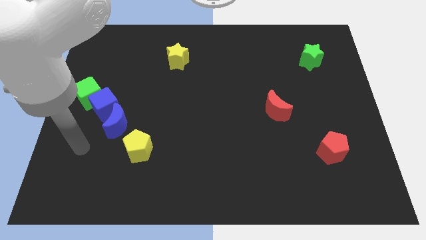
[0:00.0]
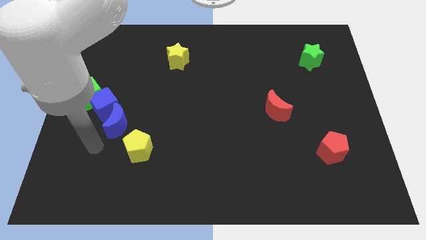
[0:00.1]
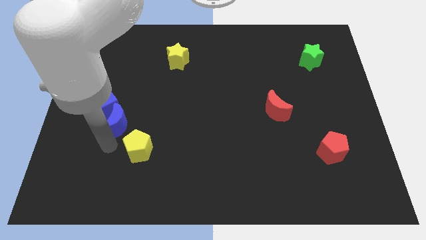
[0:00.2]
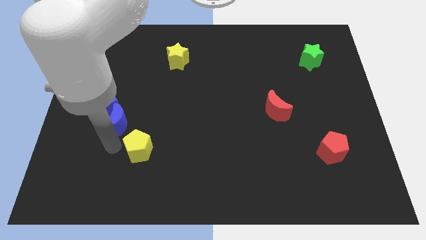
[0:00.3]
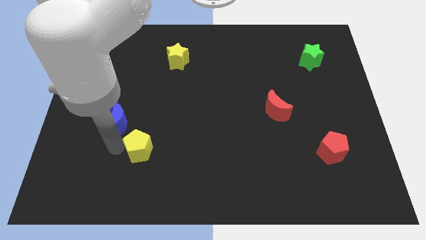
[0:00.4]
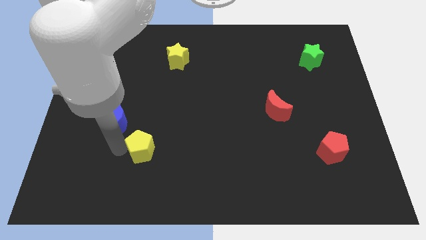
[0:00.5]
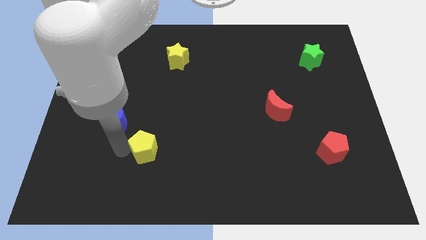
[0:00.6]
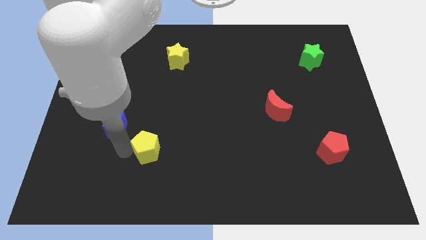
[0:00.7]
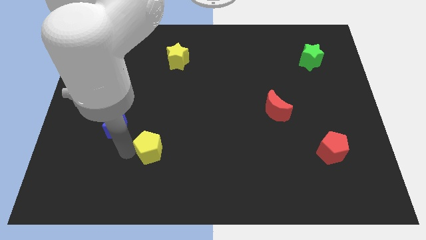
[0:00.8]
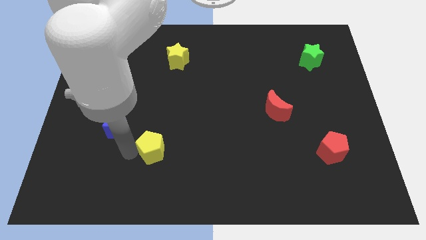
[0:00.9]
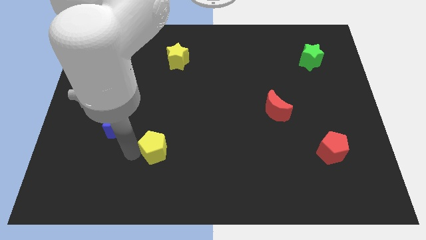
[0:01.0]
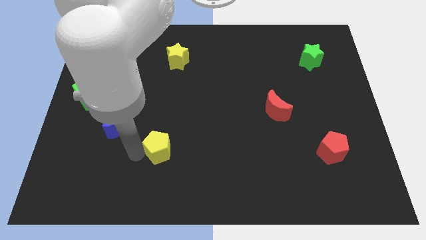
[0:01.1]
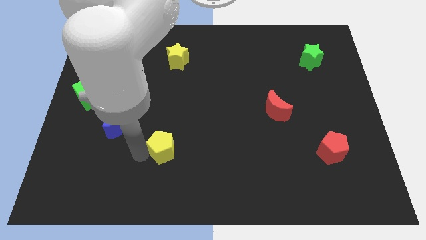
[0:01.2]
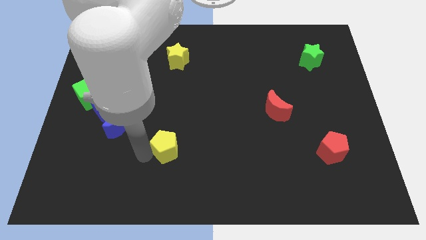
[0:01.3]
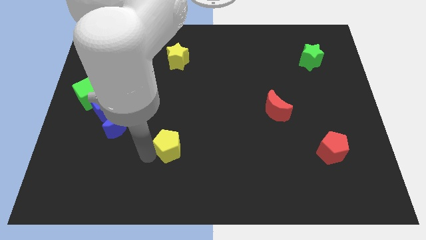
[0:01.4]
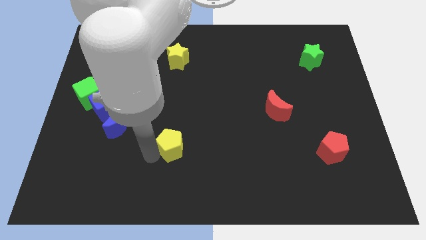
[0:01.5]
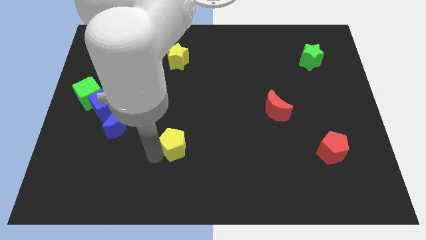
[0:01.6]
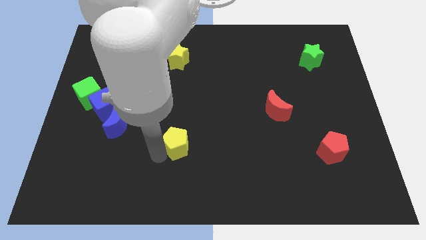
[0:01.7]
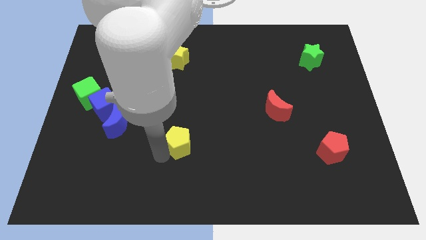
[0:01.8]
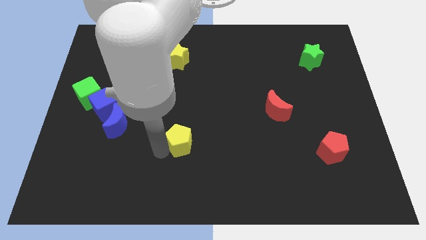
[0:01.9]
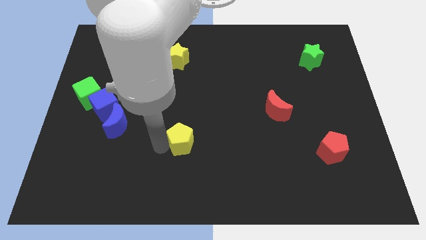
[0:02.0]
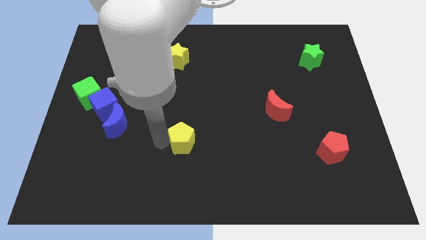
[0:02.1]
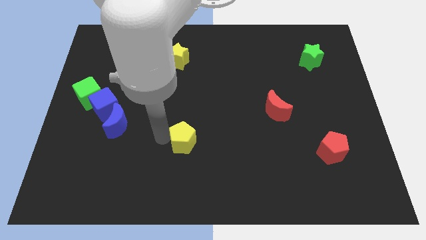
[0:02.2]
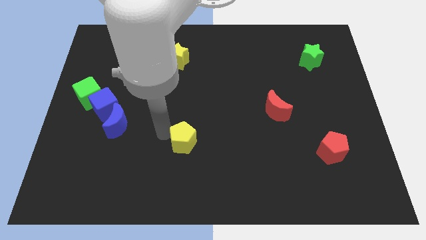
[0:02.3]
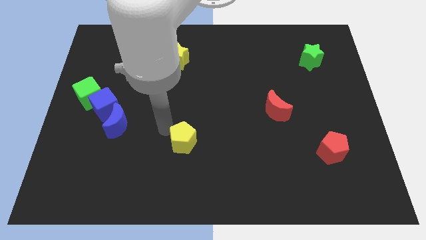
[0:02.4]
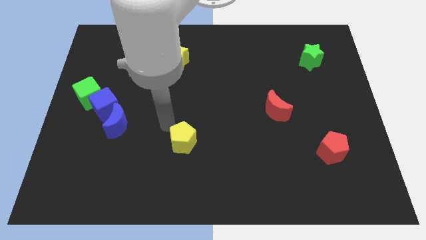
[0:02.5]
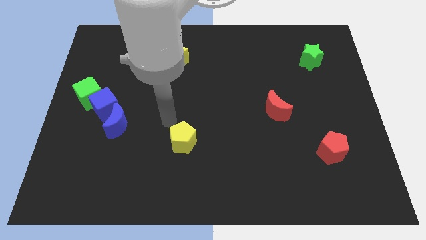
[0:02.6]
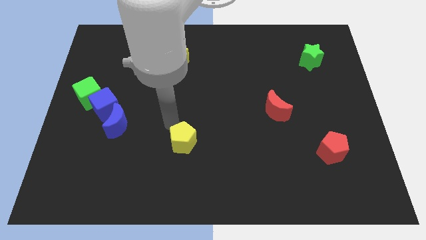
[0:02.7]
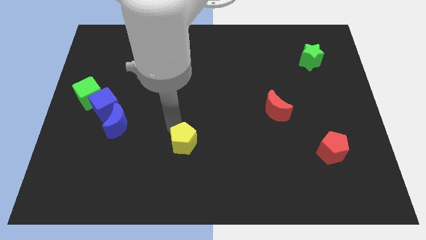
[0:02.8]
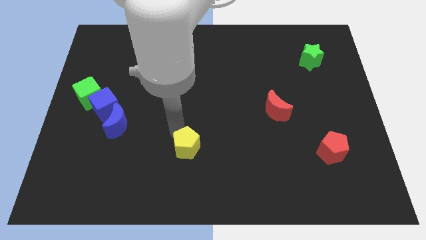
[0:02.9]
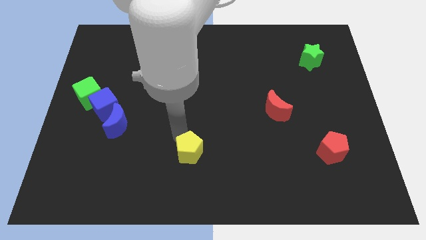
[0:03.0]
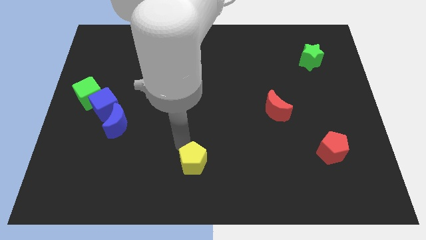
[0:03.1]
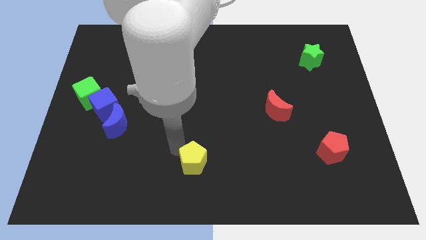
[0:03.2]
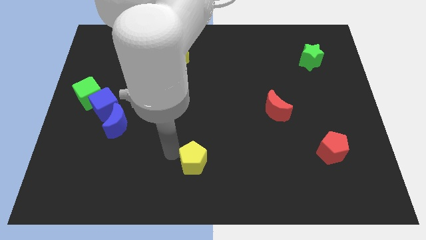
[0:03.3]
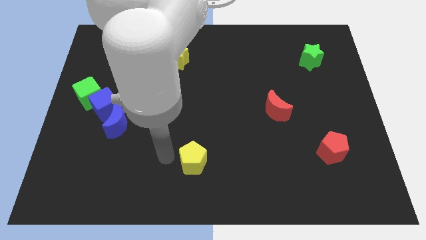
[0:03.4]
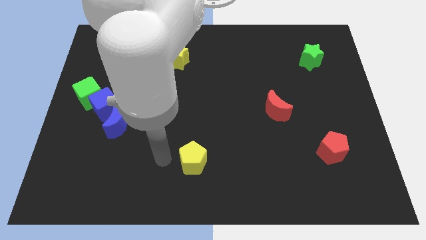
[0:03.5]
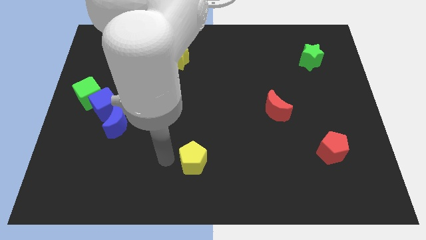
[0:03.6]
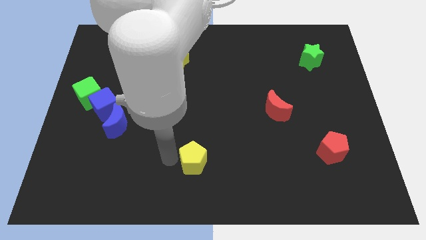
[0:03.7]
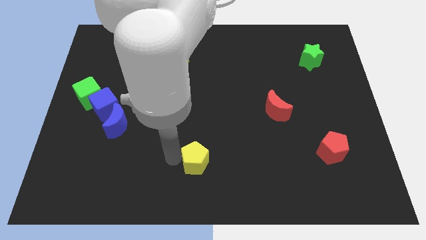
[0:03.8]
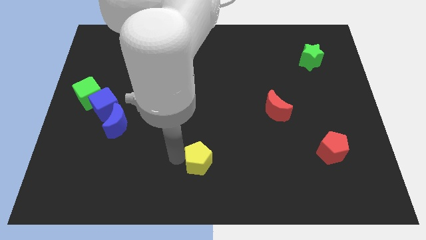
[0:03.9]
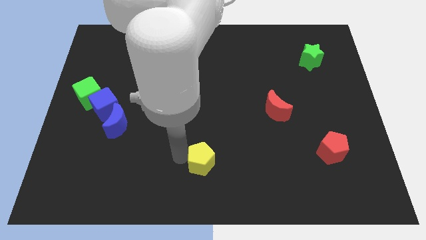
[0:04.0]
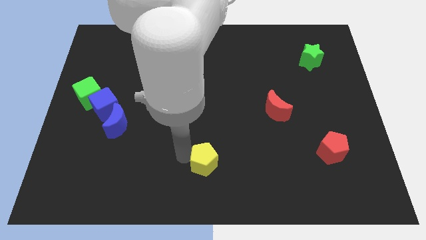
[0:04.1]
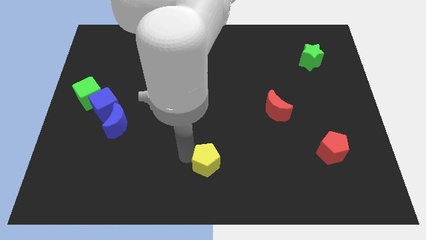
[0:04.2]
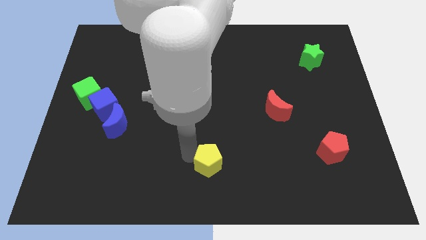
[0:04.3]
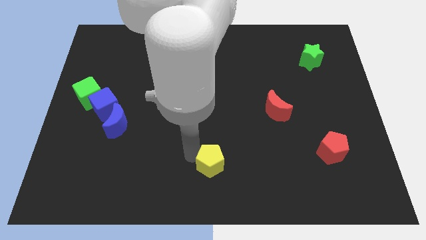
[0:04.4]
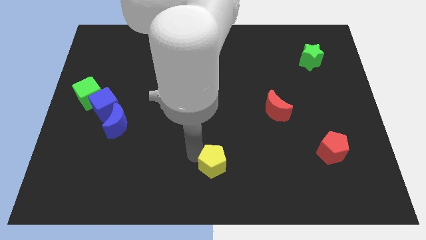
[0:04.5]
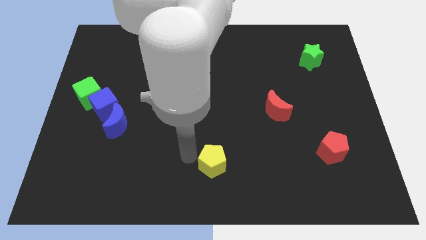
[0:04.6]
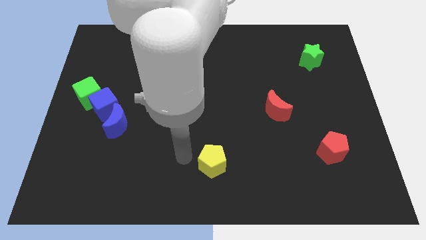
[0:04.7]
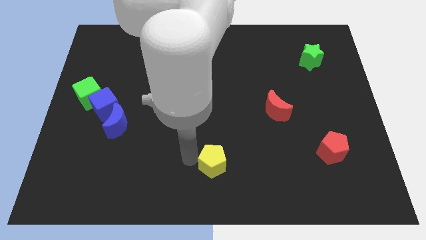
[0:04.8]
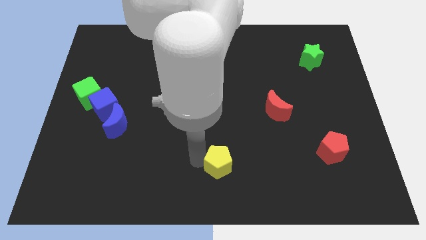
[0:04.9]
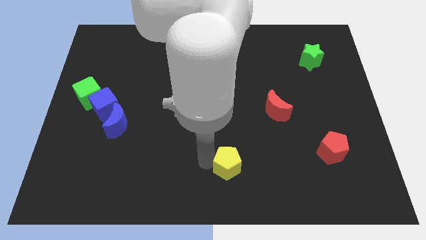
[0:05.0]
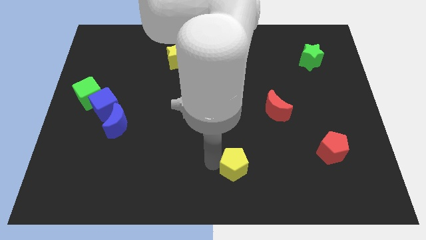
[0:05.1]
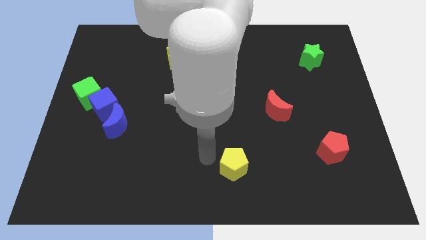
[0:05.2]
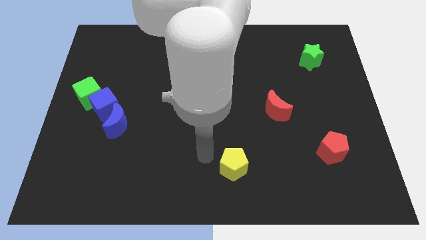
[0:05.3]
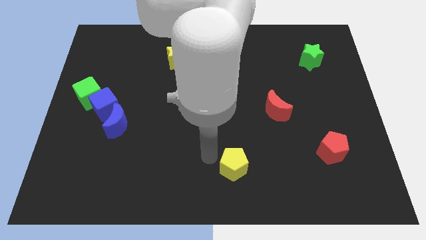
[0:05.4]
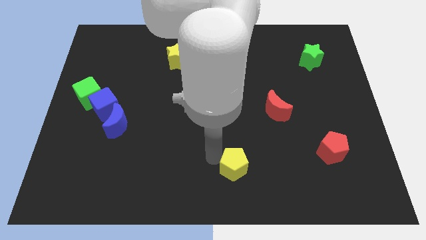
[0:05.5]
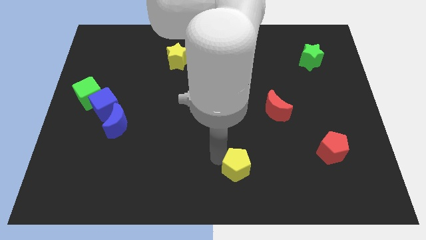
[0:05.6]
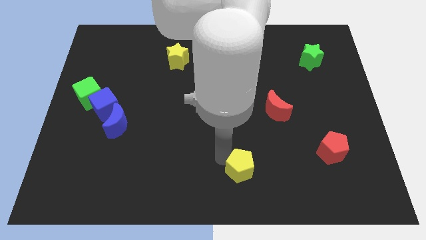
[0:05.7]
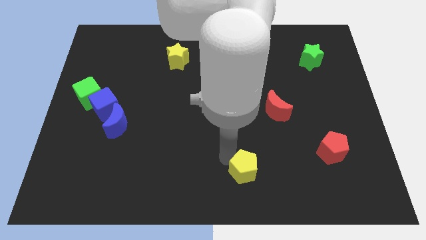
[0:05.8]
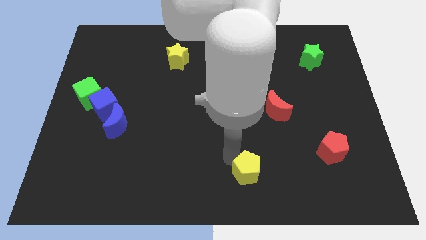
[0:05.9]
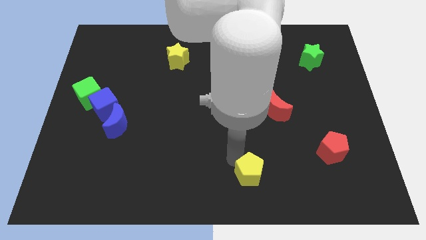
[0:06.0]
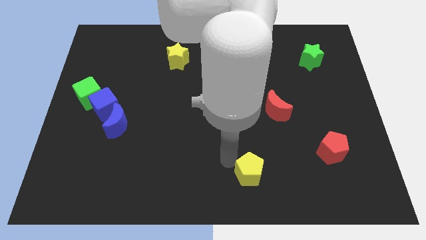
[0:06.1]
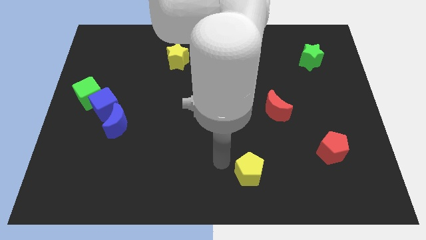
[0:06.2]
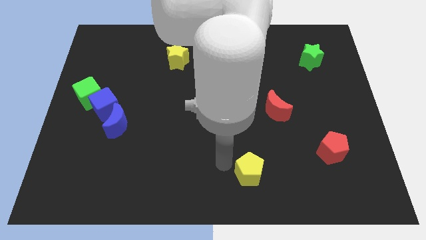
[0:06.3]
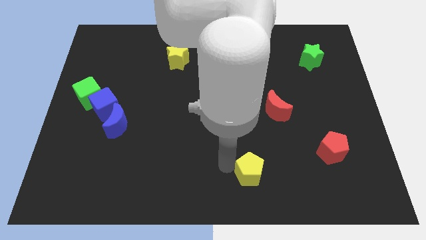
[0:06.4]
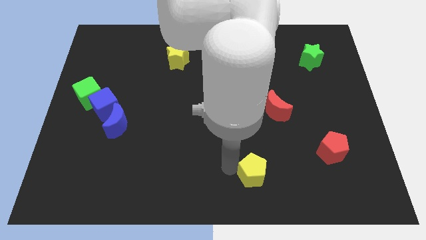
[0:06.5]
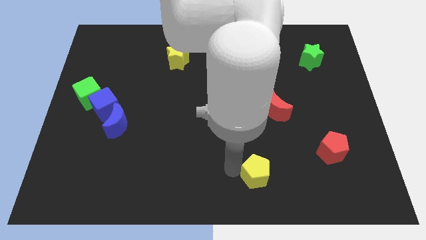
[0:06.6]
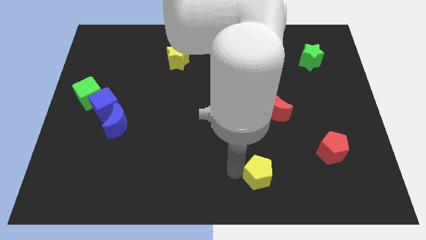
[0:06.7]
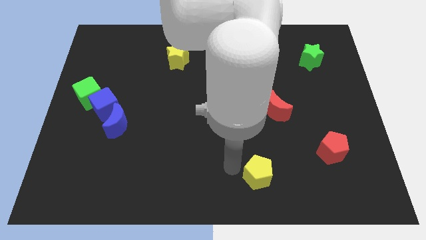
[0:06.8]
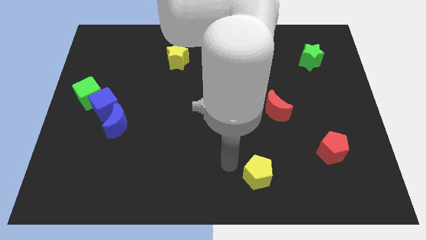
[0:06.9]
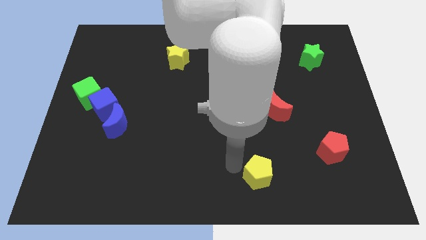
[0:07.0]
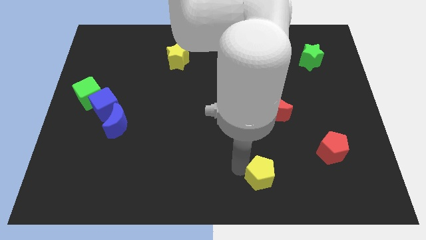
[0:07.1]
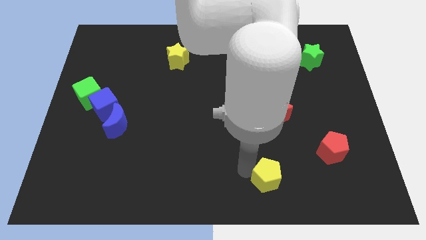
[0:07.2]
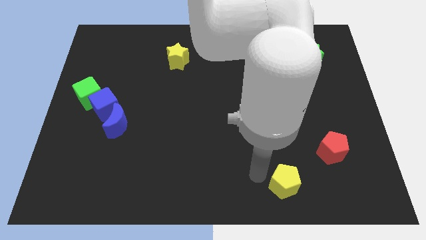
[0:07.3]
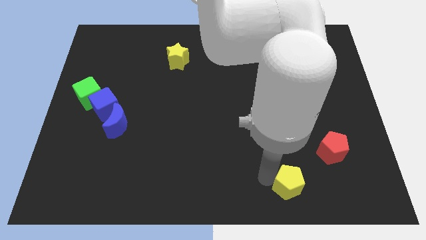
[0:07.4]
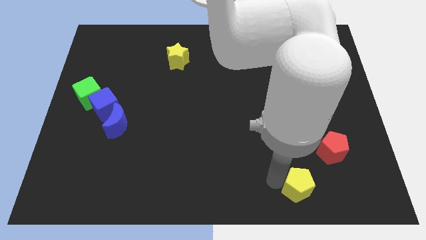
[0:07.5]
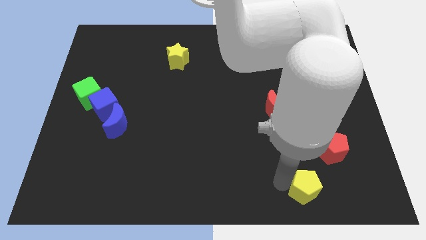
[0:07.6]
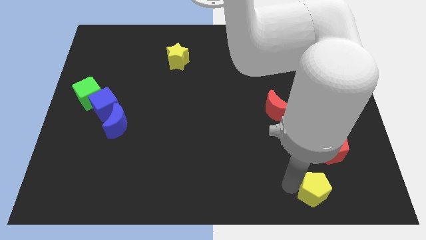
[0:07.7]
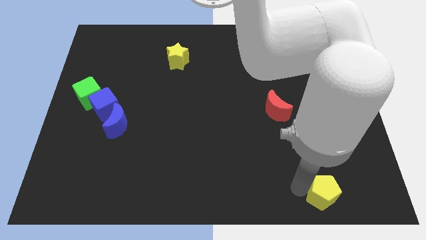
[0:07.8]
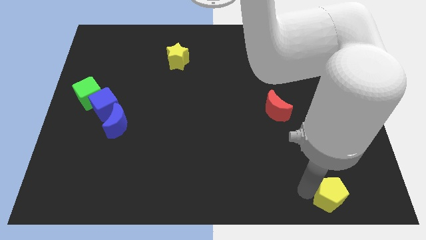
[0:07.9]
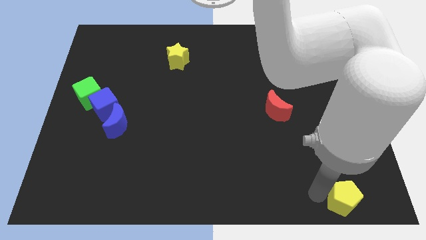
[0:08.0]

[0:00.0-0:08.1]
push the yellow pentagon to the bottom right of the board
